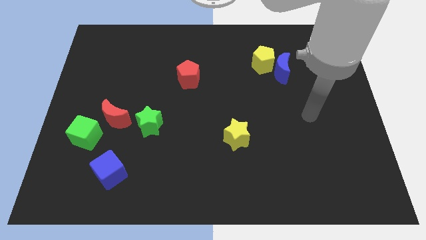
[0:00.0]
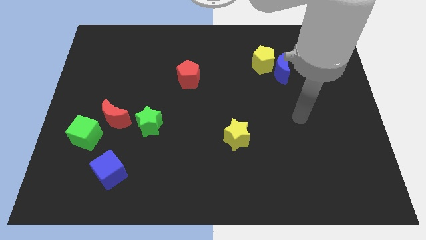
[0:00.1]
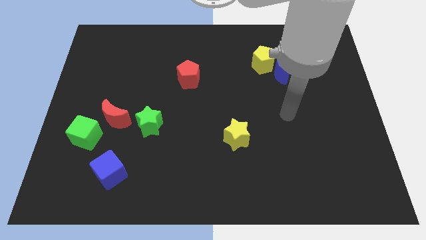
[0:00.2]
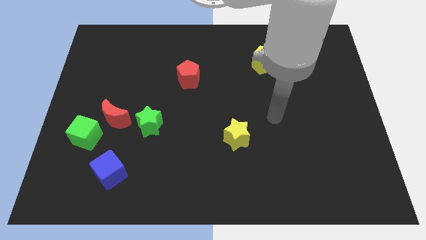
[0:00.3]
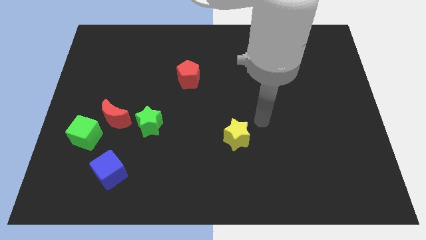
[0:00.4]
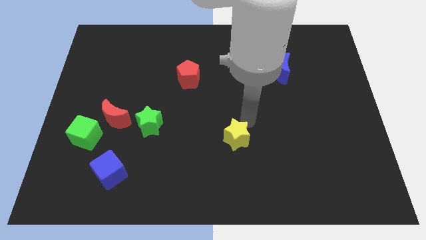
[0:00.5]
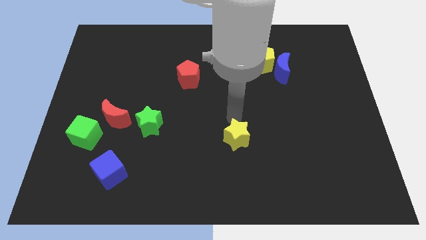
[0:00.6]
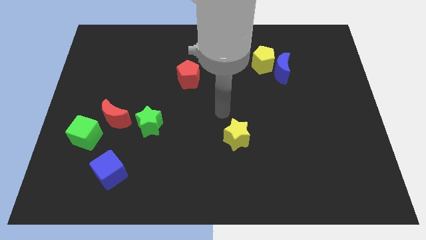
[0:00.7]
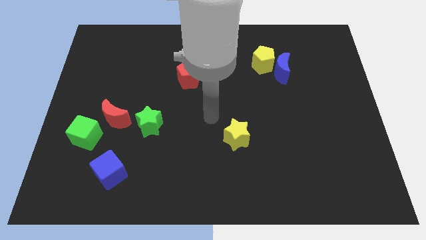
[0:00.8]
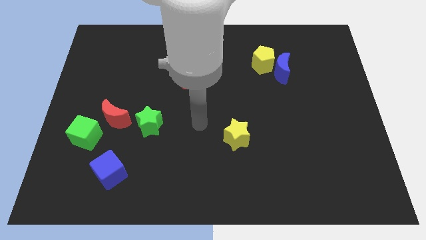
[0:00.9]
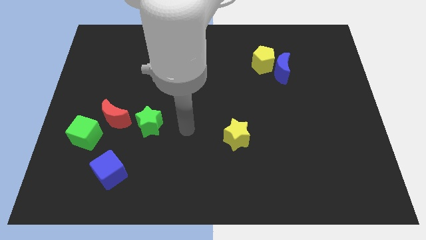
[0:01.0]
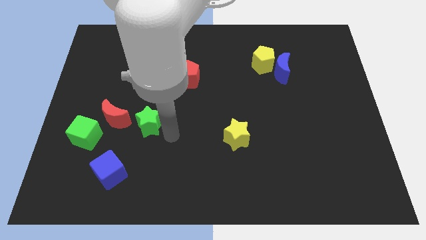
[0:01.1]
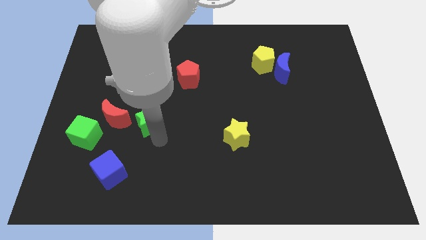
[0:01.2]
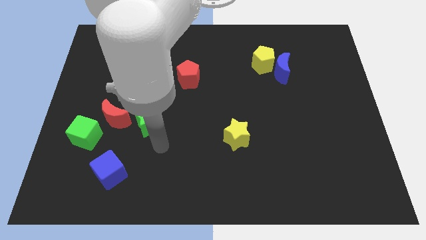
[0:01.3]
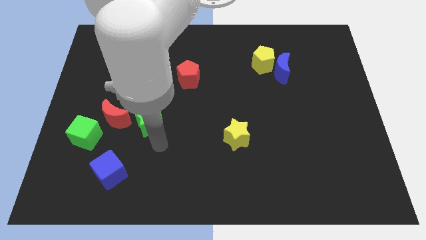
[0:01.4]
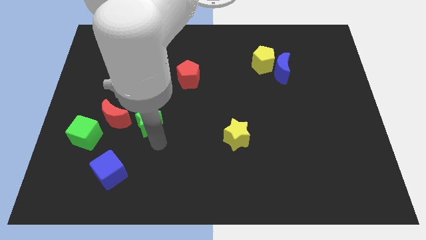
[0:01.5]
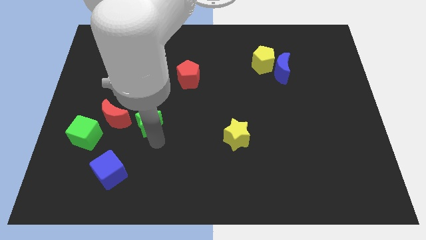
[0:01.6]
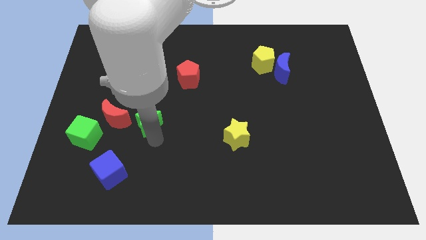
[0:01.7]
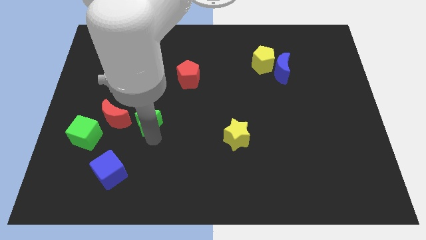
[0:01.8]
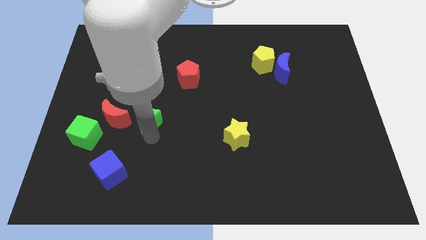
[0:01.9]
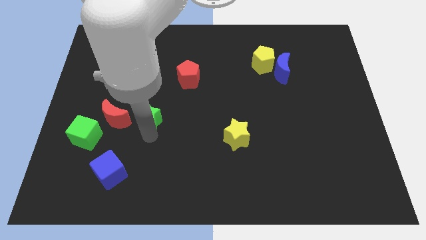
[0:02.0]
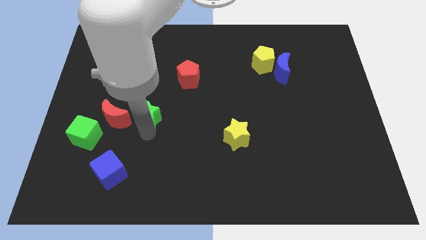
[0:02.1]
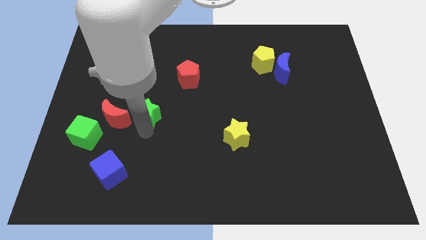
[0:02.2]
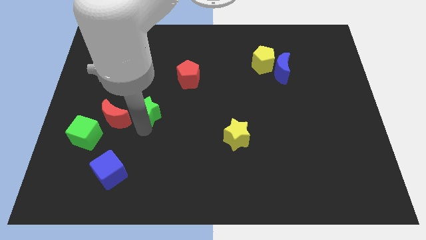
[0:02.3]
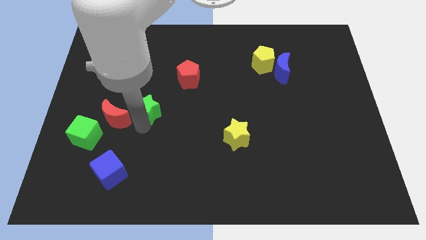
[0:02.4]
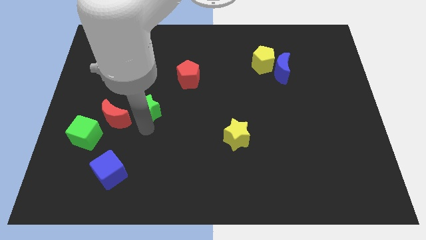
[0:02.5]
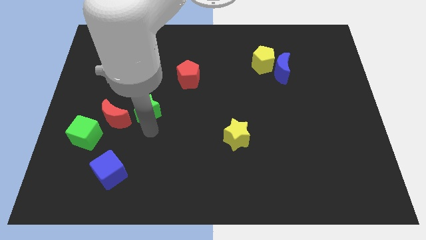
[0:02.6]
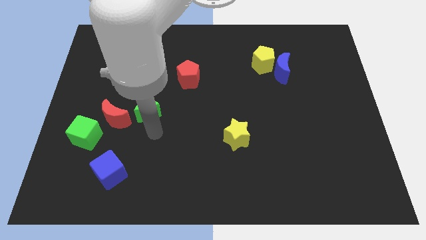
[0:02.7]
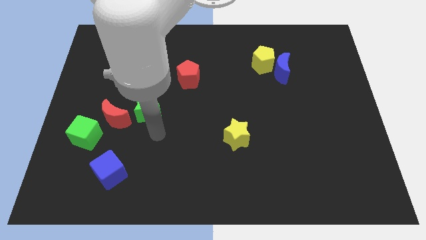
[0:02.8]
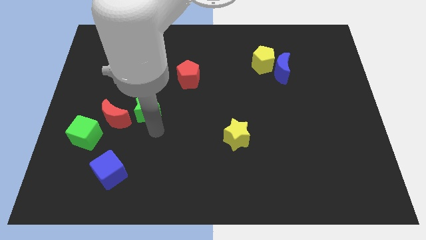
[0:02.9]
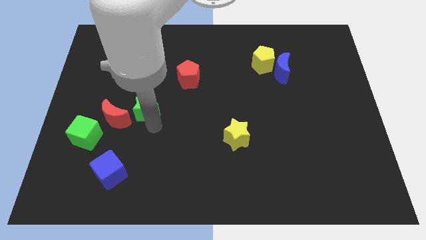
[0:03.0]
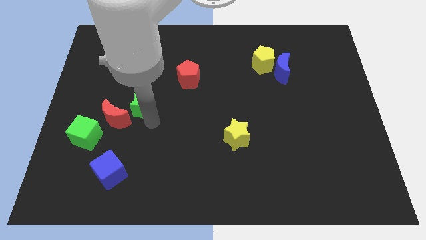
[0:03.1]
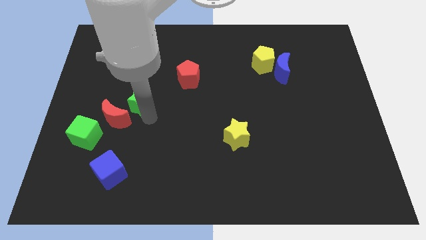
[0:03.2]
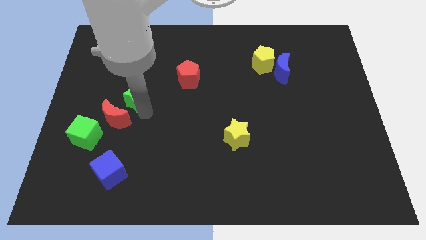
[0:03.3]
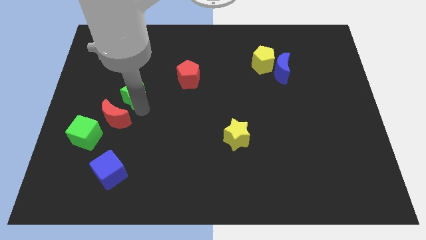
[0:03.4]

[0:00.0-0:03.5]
slightly push the green star up

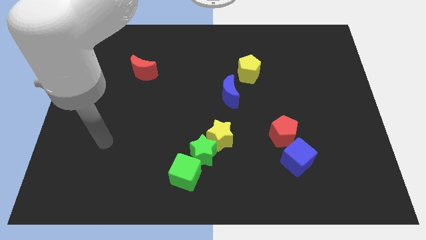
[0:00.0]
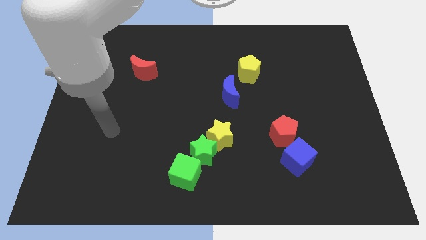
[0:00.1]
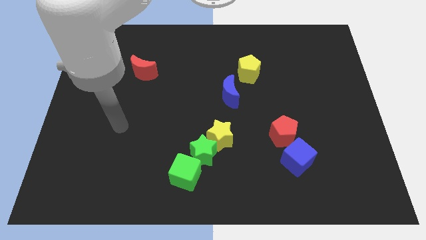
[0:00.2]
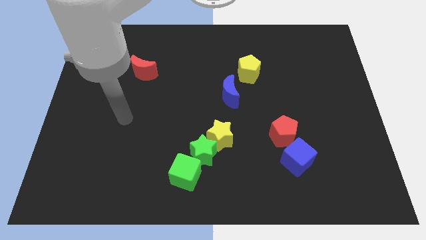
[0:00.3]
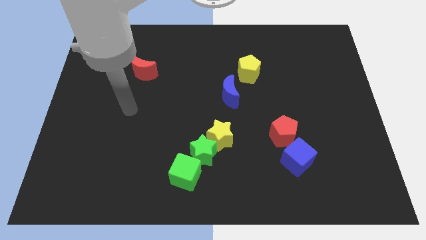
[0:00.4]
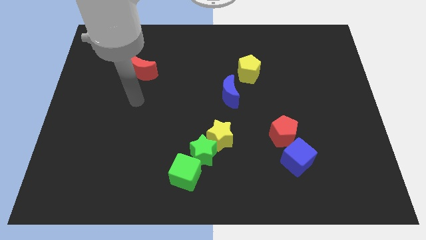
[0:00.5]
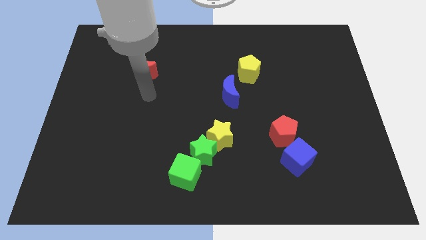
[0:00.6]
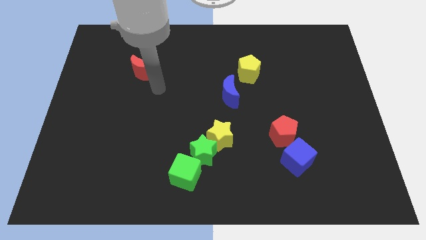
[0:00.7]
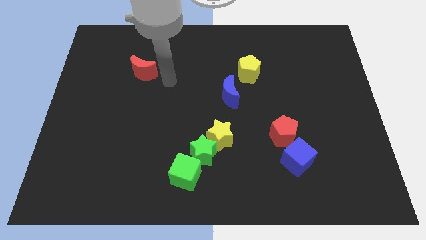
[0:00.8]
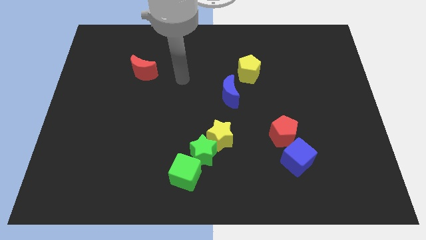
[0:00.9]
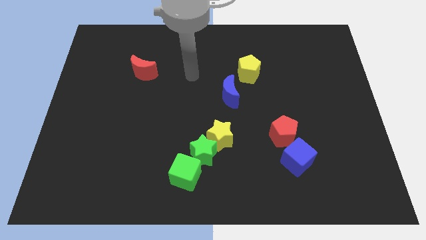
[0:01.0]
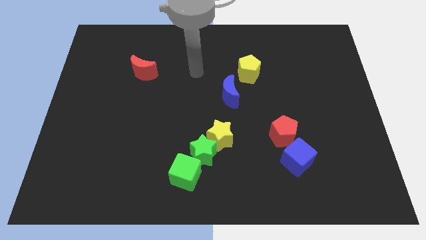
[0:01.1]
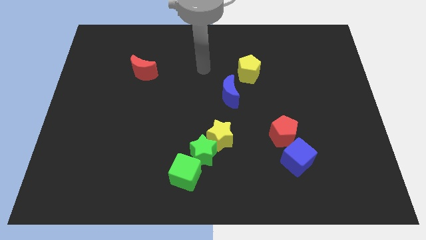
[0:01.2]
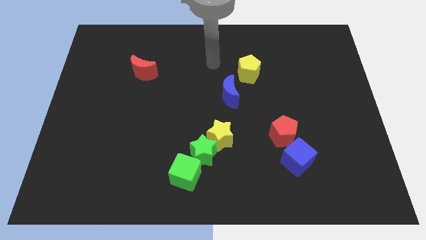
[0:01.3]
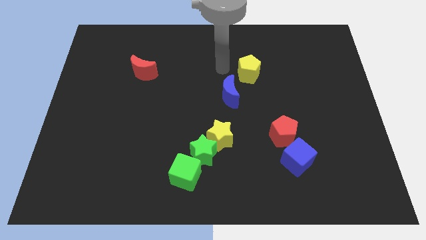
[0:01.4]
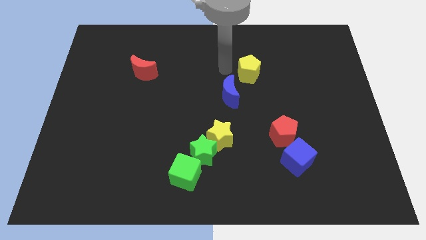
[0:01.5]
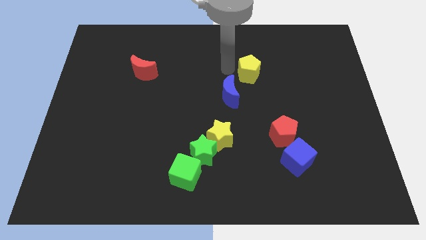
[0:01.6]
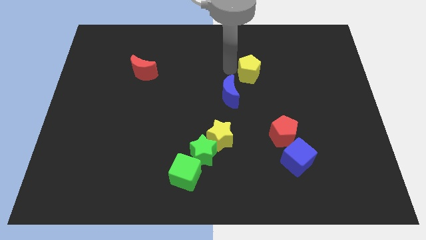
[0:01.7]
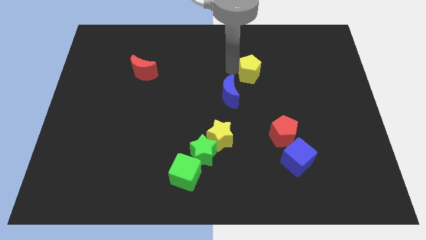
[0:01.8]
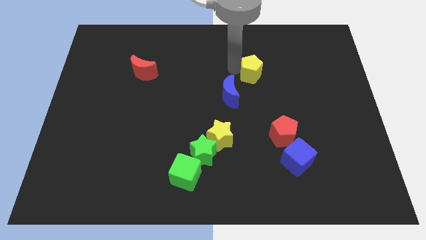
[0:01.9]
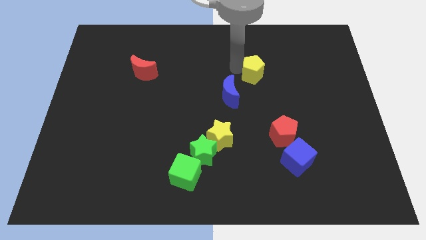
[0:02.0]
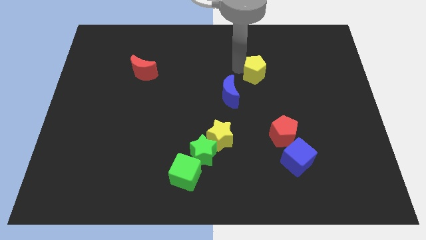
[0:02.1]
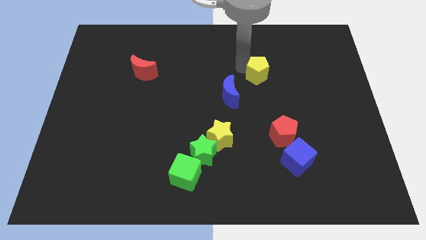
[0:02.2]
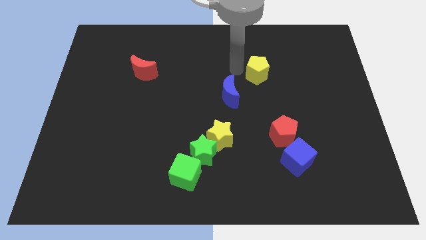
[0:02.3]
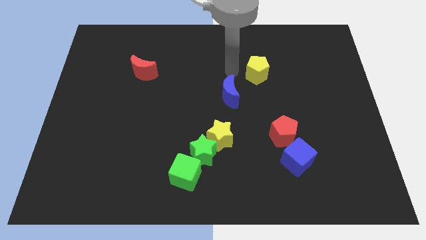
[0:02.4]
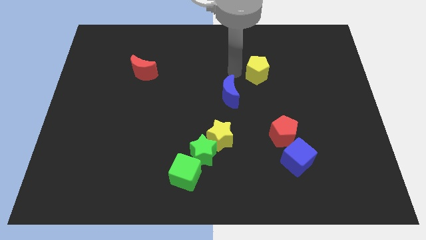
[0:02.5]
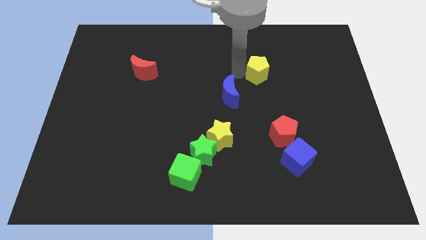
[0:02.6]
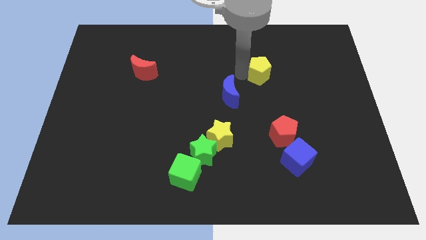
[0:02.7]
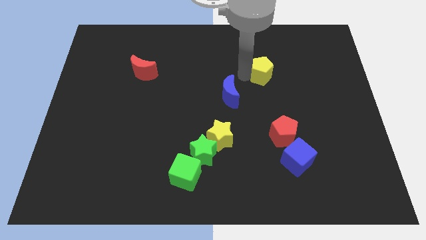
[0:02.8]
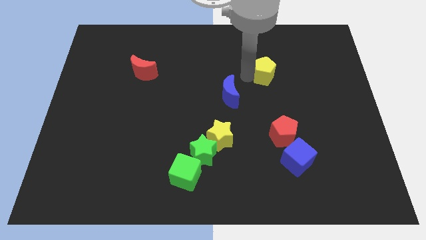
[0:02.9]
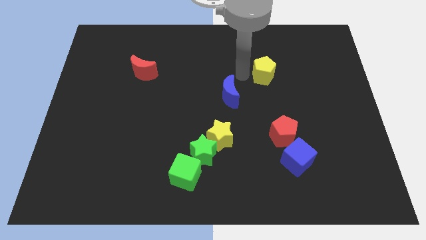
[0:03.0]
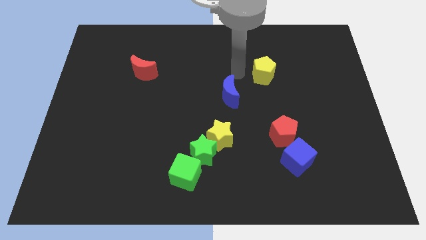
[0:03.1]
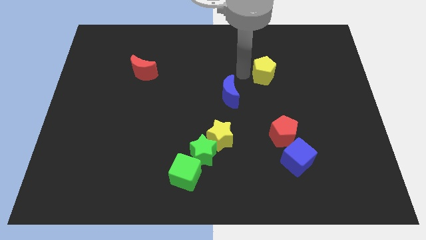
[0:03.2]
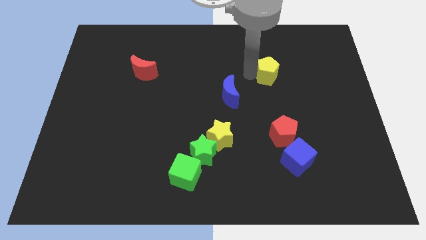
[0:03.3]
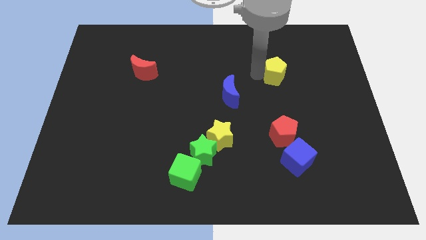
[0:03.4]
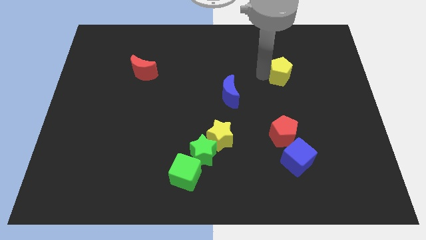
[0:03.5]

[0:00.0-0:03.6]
move the yellow pentagon to the right a little bit

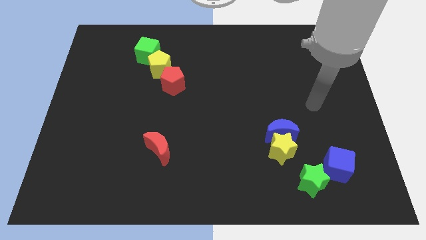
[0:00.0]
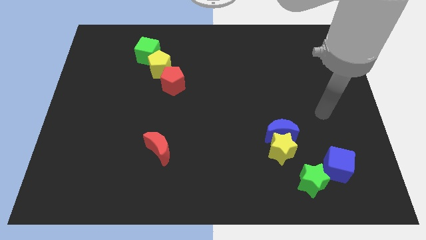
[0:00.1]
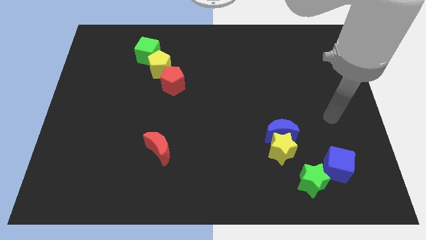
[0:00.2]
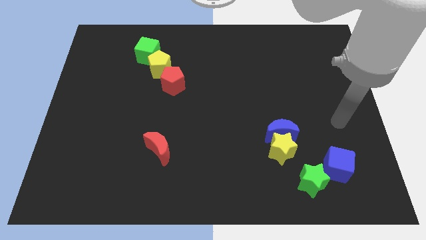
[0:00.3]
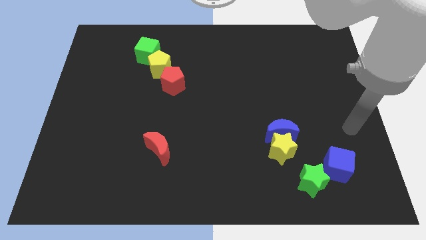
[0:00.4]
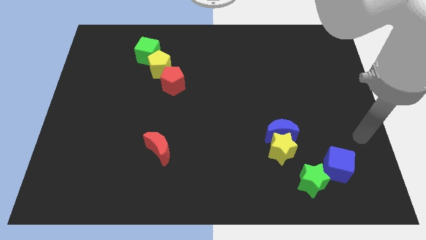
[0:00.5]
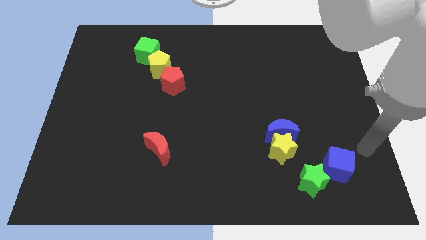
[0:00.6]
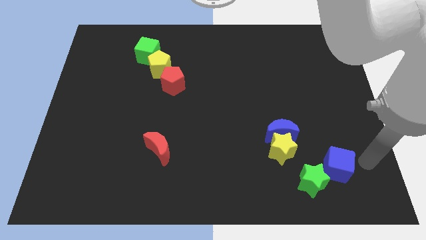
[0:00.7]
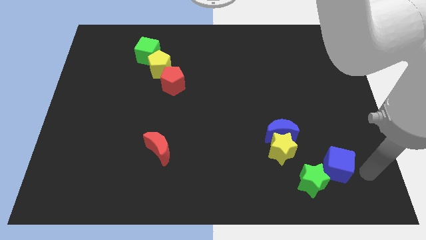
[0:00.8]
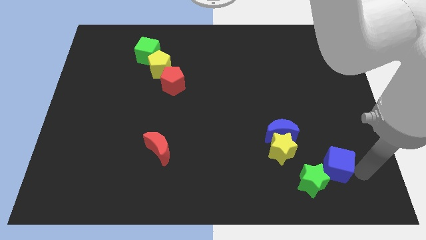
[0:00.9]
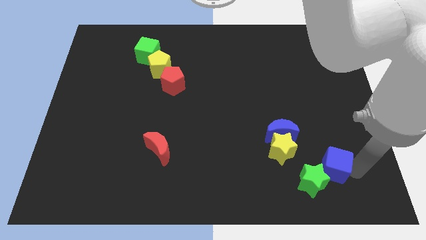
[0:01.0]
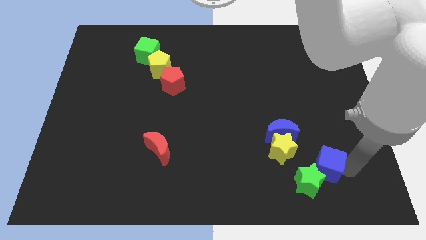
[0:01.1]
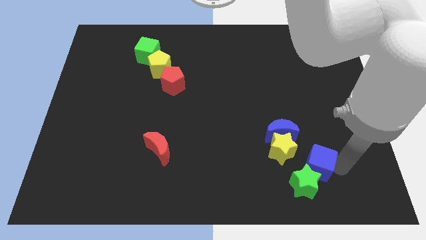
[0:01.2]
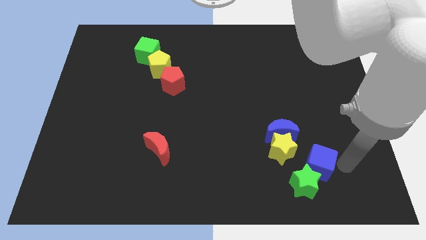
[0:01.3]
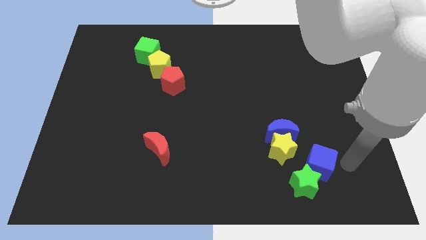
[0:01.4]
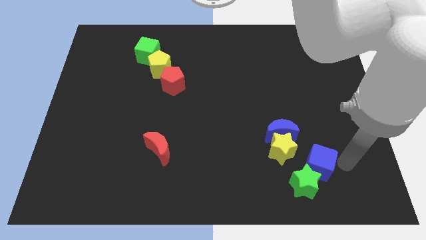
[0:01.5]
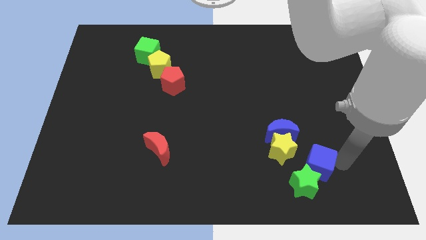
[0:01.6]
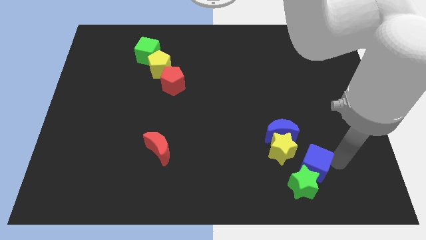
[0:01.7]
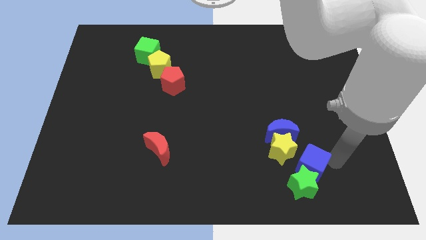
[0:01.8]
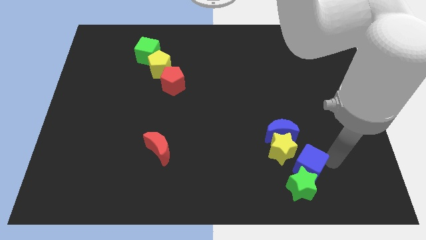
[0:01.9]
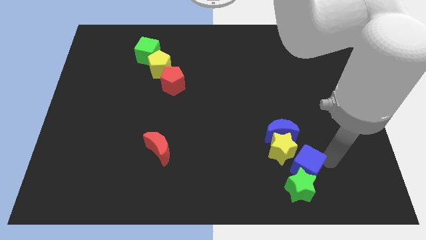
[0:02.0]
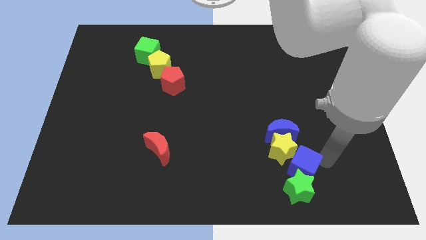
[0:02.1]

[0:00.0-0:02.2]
slightly push the blue cube to the left
